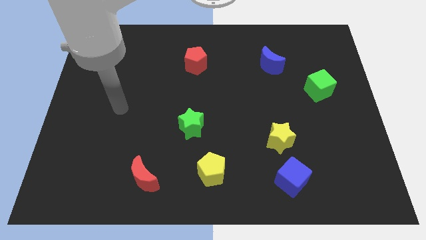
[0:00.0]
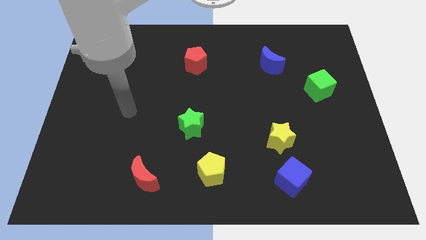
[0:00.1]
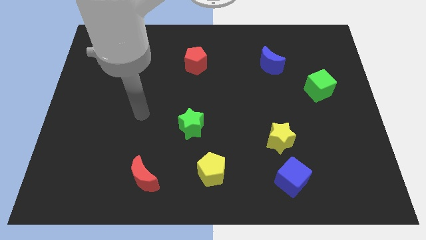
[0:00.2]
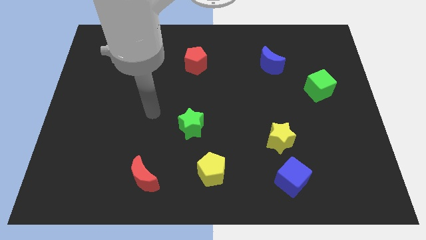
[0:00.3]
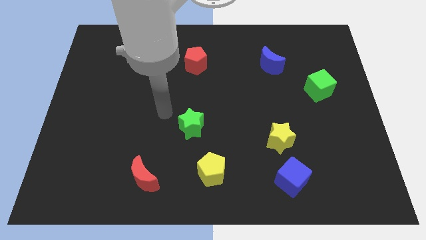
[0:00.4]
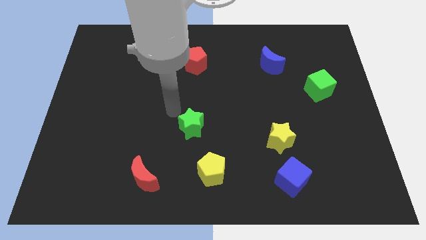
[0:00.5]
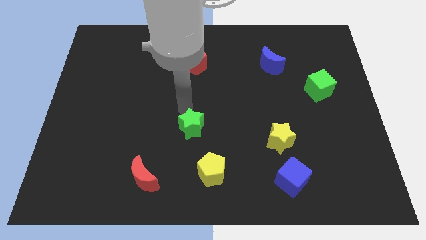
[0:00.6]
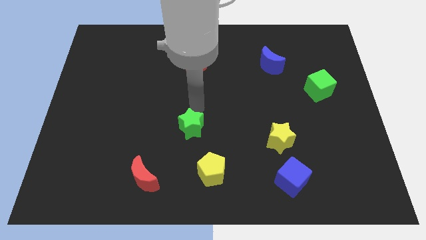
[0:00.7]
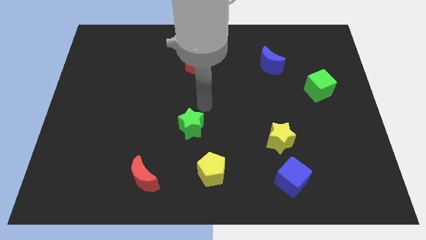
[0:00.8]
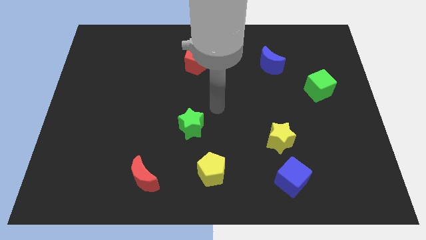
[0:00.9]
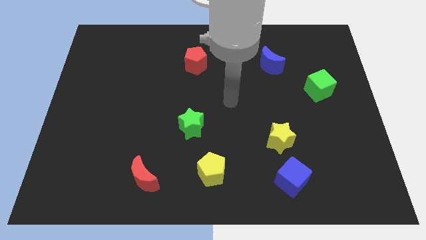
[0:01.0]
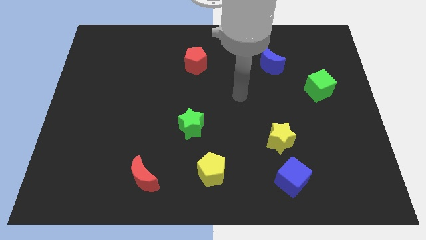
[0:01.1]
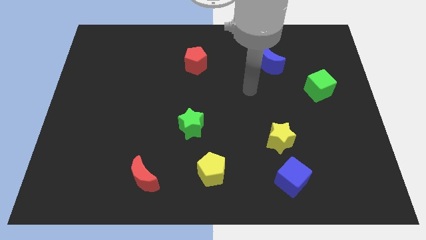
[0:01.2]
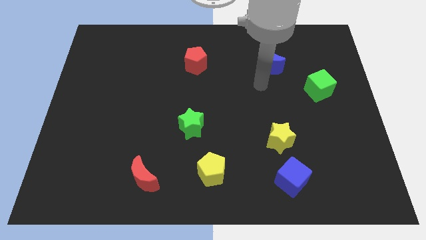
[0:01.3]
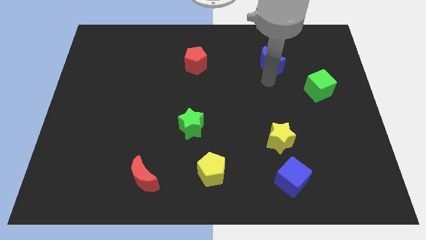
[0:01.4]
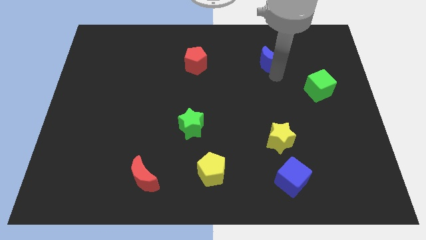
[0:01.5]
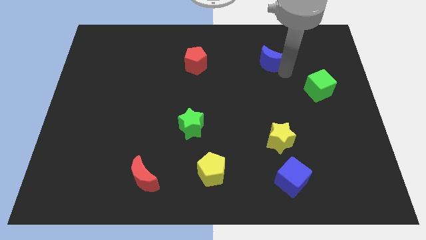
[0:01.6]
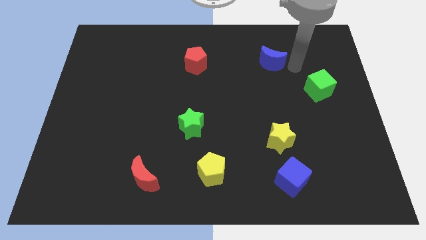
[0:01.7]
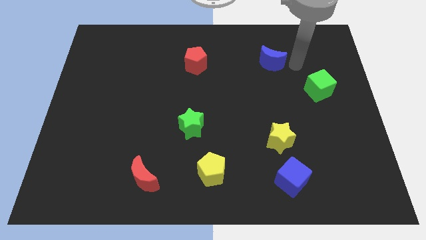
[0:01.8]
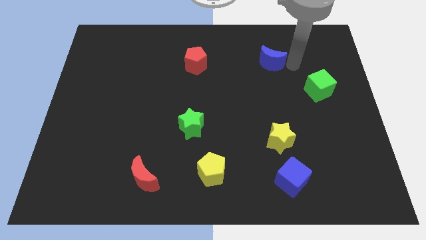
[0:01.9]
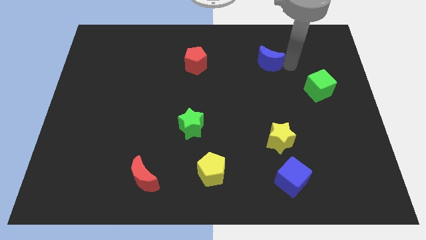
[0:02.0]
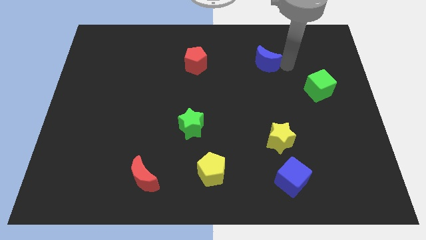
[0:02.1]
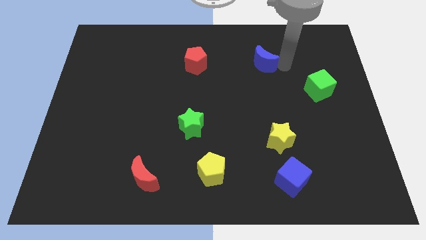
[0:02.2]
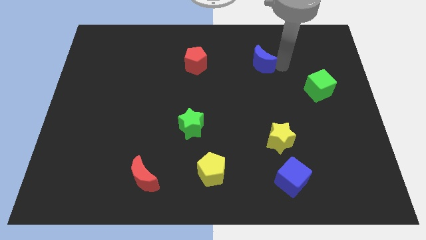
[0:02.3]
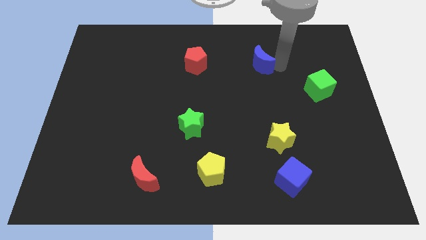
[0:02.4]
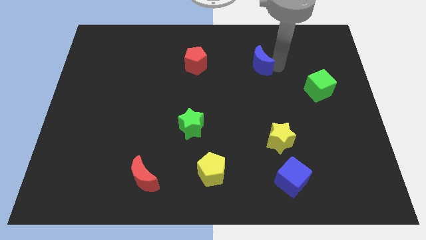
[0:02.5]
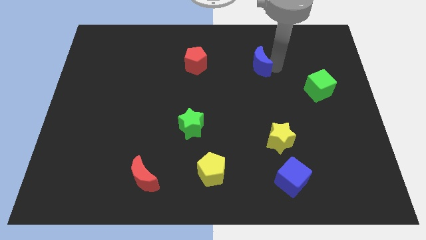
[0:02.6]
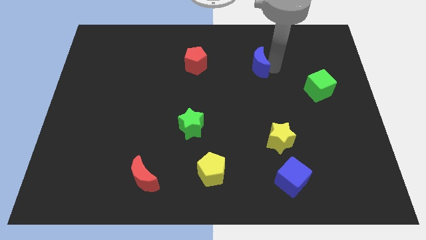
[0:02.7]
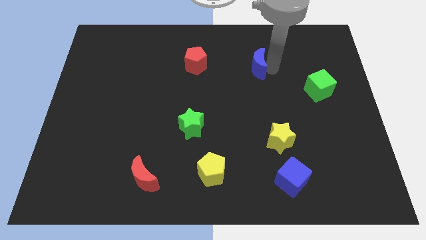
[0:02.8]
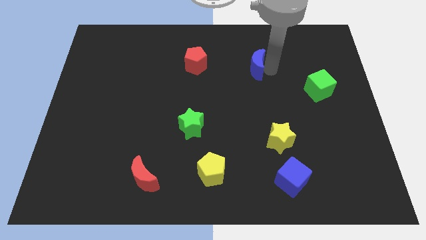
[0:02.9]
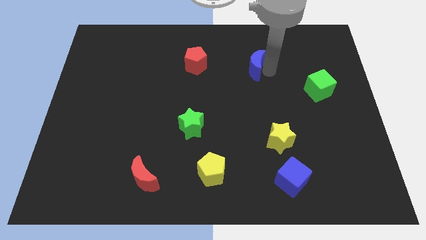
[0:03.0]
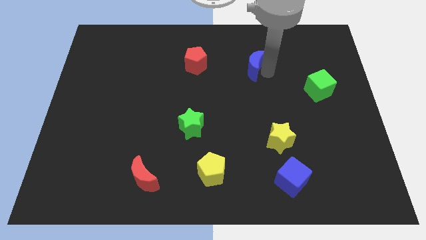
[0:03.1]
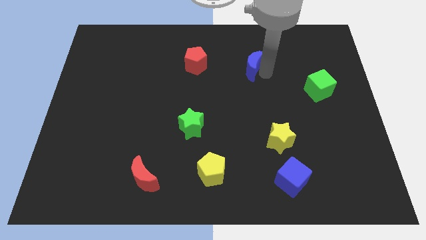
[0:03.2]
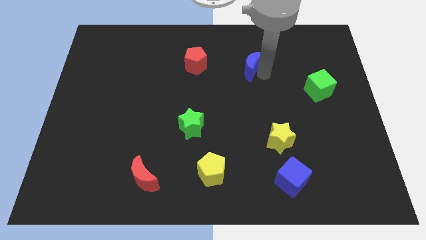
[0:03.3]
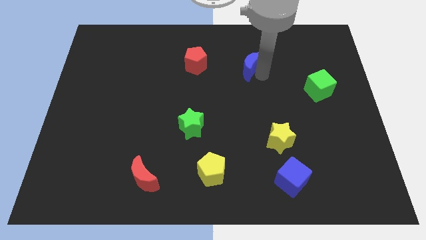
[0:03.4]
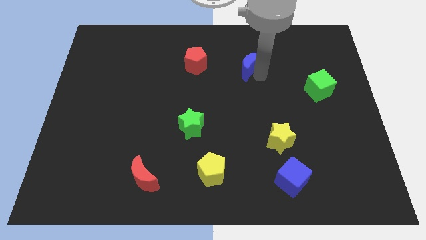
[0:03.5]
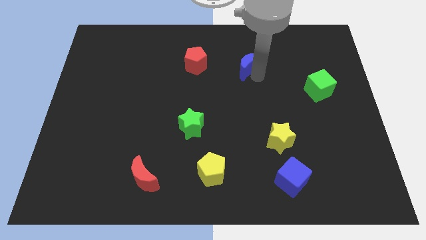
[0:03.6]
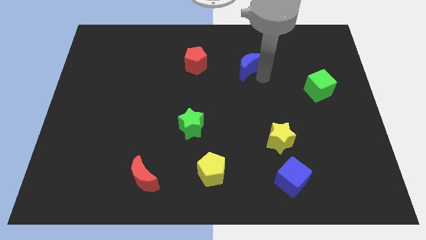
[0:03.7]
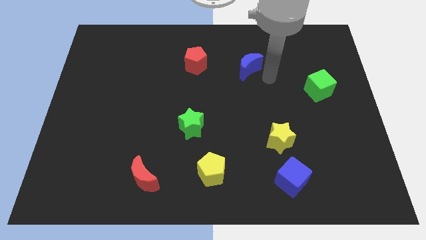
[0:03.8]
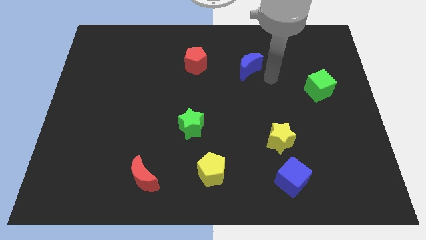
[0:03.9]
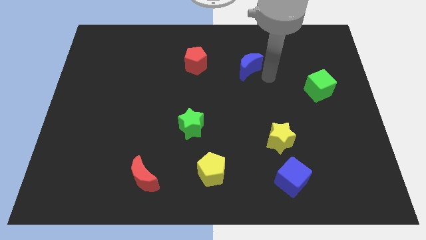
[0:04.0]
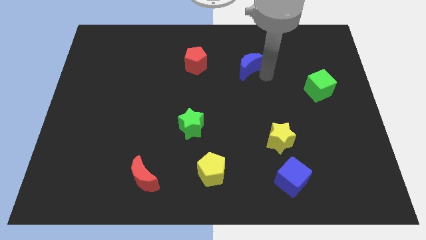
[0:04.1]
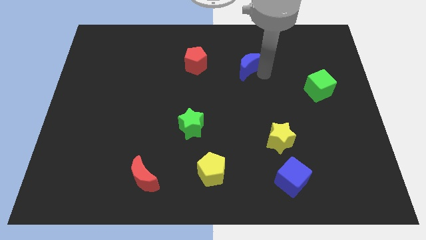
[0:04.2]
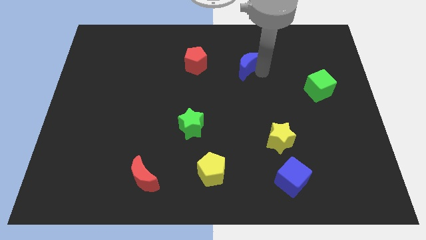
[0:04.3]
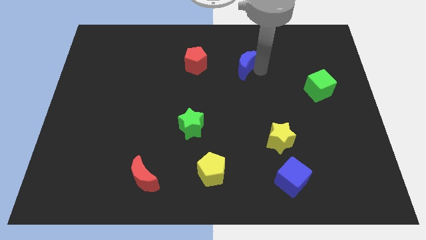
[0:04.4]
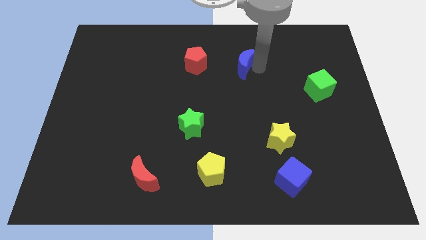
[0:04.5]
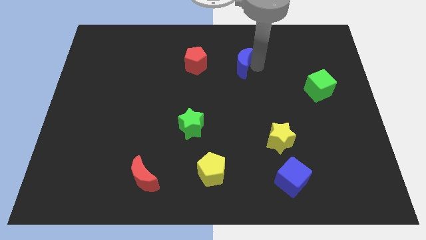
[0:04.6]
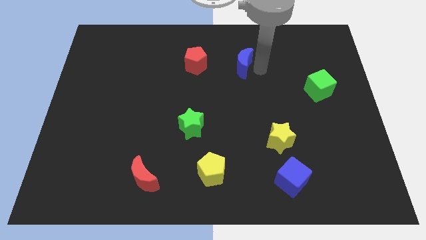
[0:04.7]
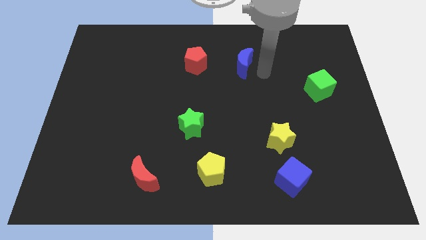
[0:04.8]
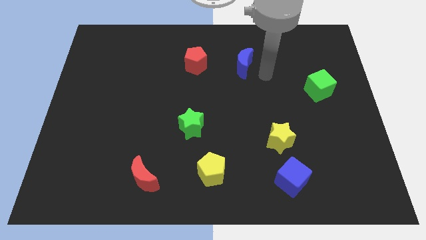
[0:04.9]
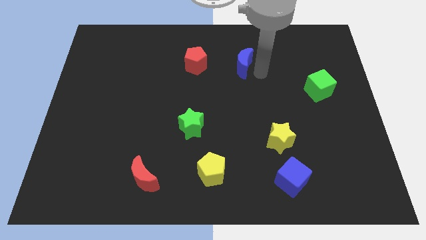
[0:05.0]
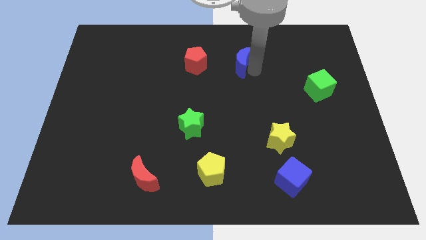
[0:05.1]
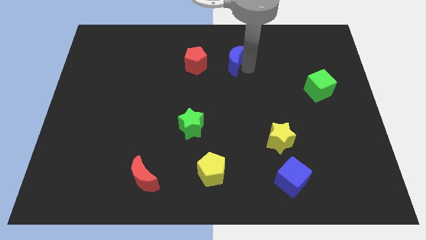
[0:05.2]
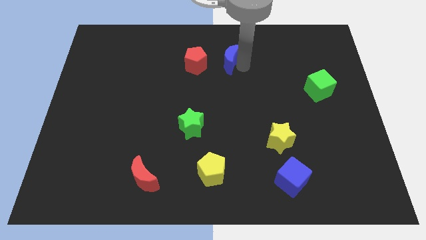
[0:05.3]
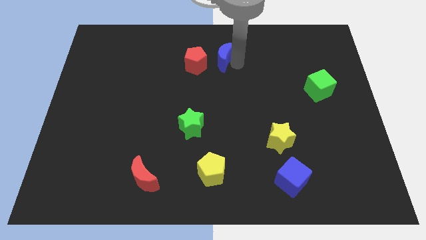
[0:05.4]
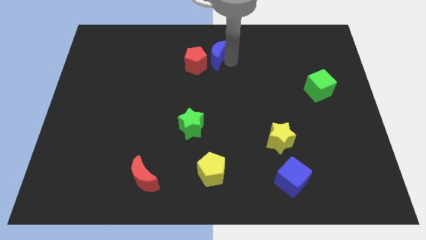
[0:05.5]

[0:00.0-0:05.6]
put the blue moon to the top

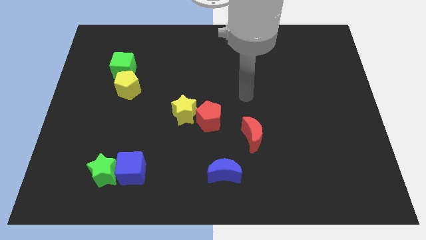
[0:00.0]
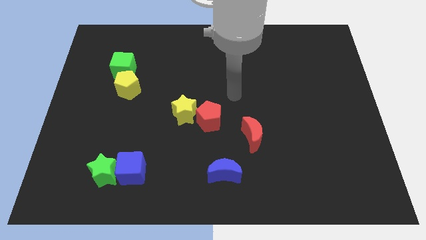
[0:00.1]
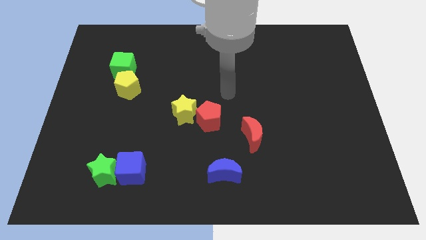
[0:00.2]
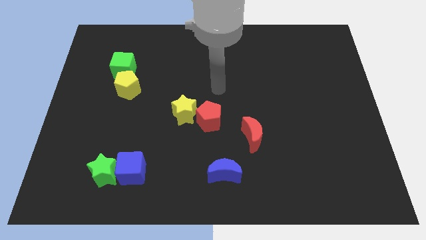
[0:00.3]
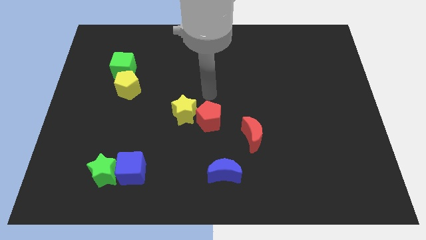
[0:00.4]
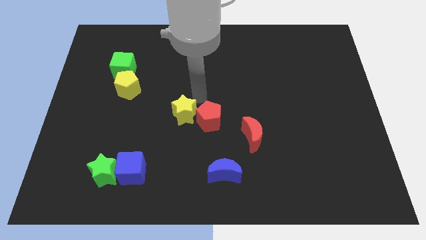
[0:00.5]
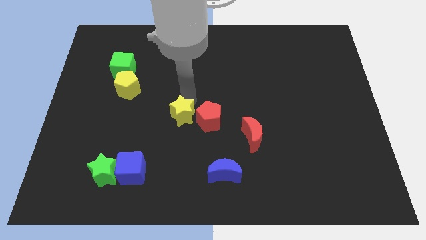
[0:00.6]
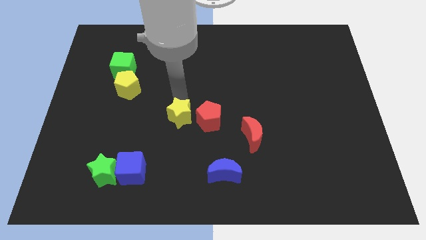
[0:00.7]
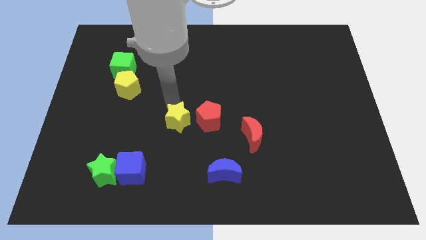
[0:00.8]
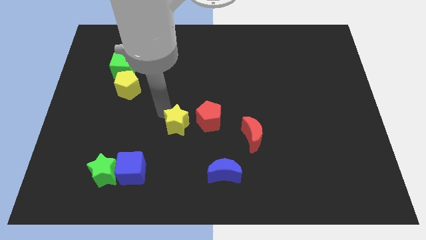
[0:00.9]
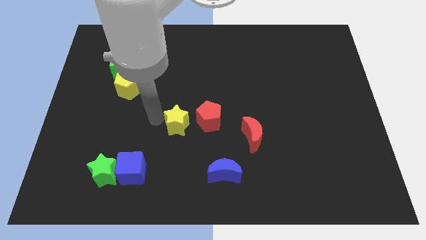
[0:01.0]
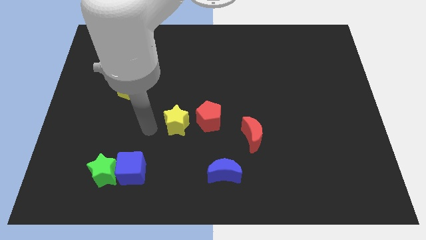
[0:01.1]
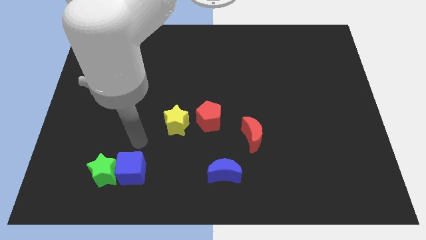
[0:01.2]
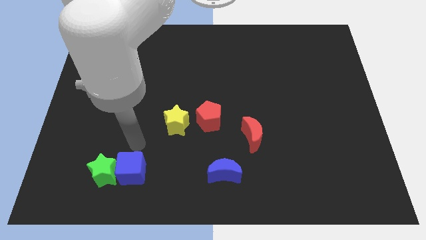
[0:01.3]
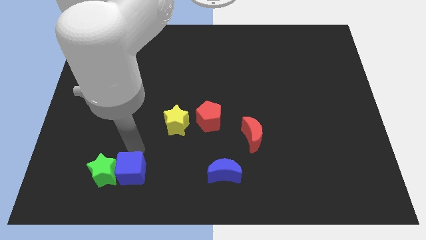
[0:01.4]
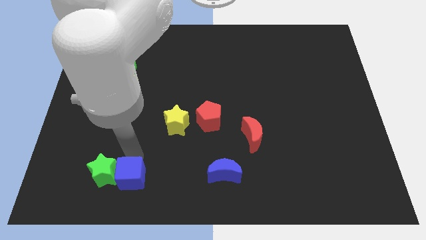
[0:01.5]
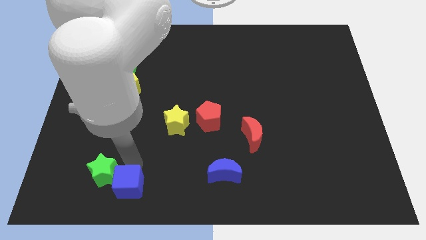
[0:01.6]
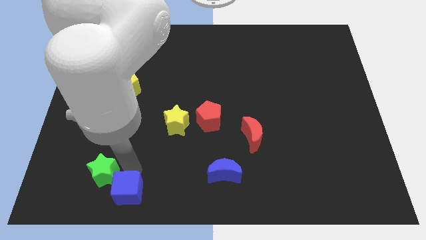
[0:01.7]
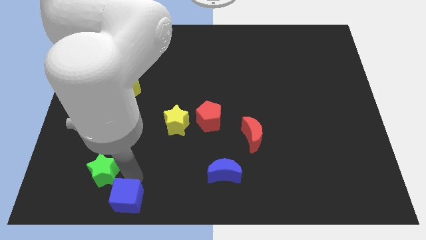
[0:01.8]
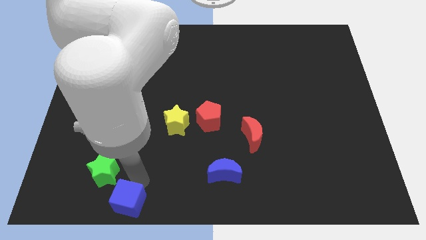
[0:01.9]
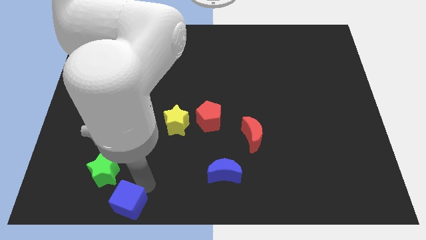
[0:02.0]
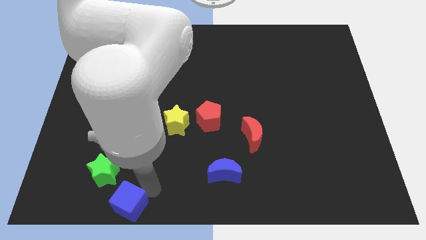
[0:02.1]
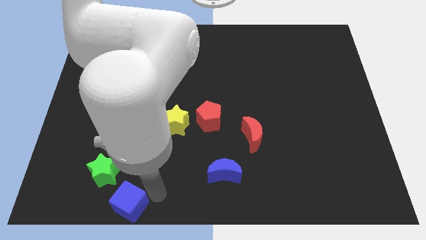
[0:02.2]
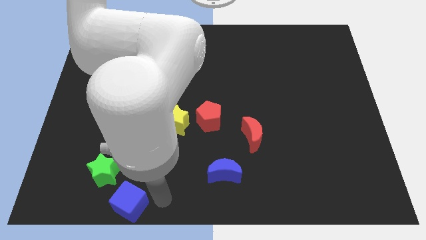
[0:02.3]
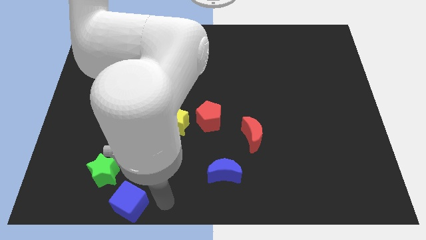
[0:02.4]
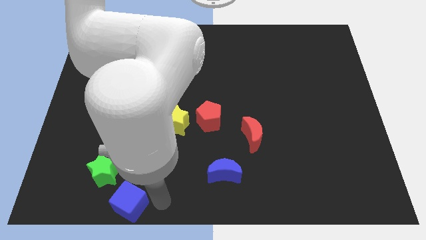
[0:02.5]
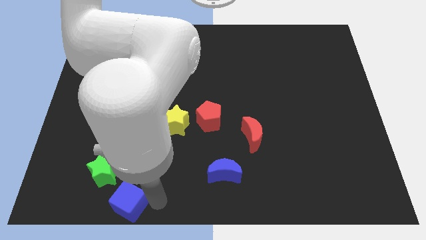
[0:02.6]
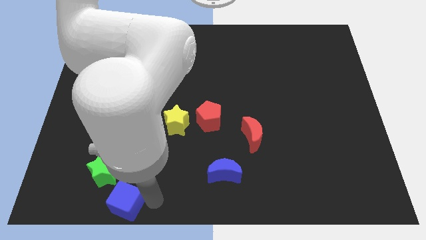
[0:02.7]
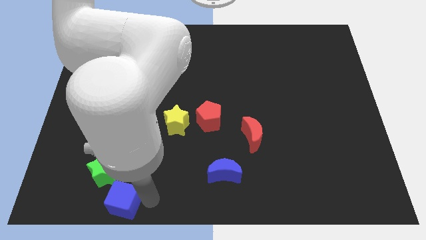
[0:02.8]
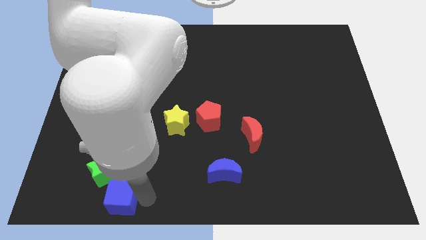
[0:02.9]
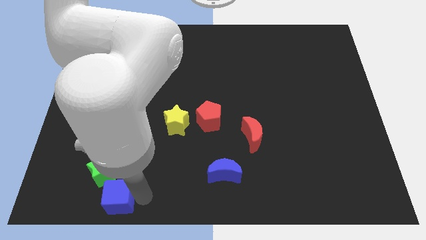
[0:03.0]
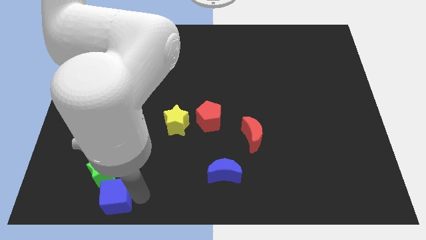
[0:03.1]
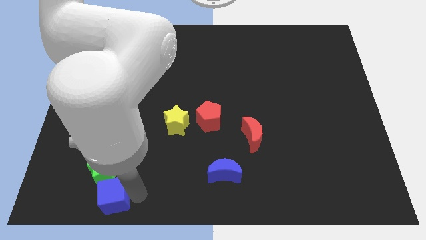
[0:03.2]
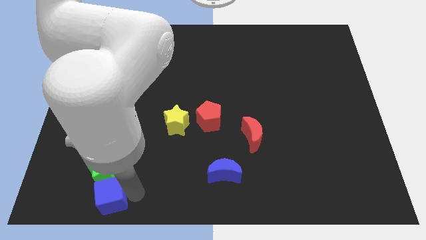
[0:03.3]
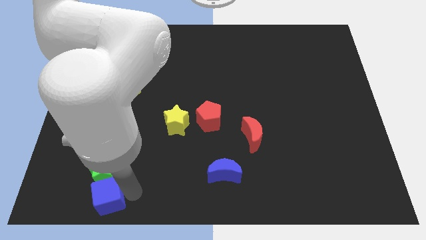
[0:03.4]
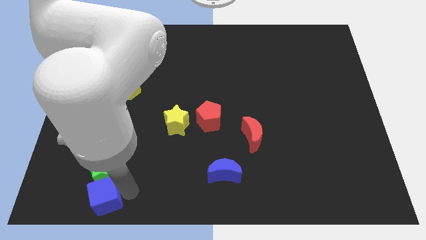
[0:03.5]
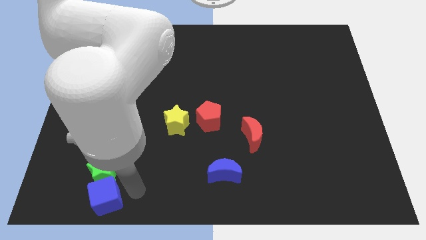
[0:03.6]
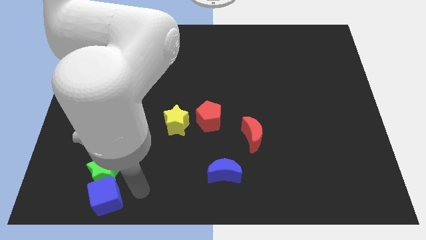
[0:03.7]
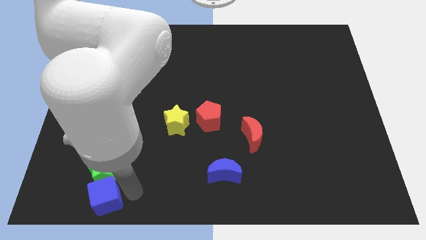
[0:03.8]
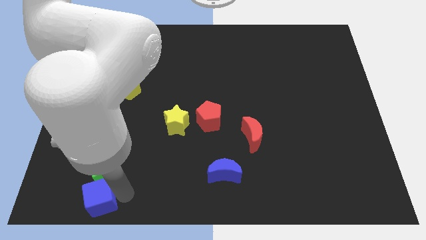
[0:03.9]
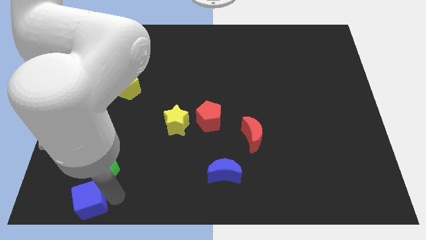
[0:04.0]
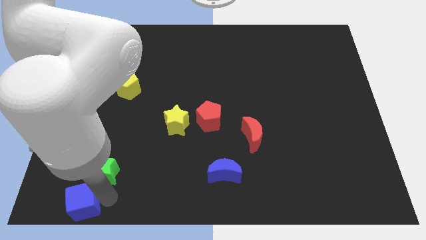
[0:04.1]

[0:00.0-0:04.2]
put the blue cube to the bottom left
